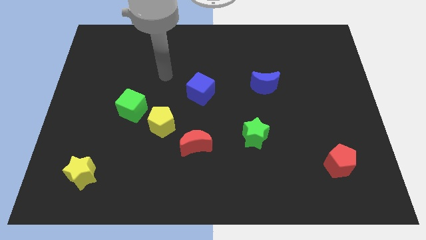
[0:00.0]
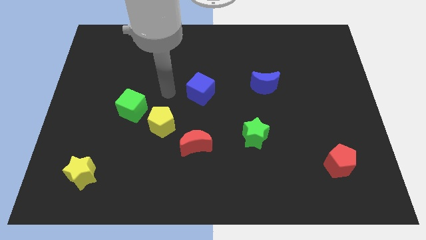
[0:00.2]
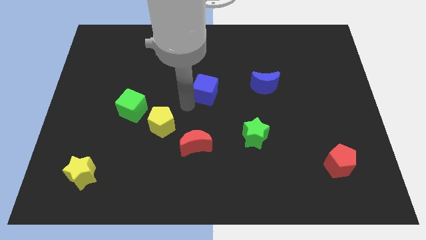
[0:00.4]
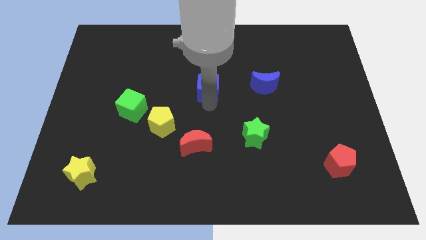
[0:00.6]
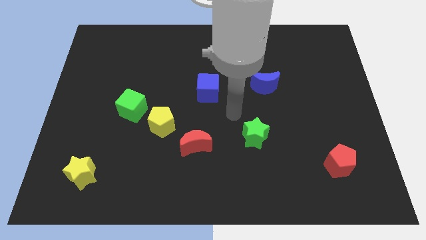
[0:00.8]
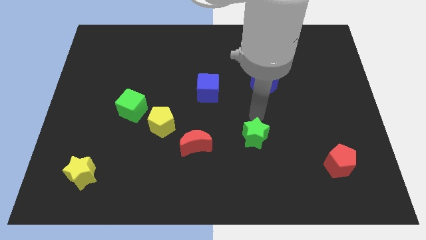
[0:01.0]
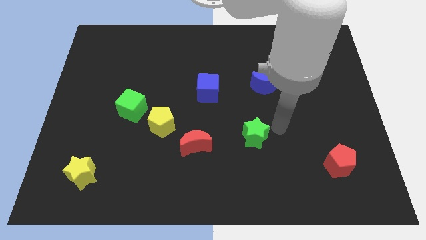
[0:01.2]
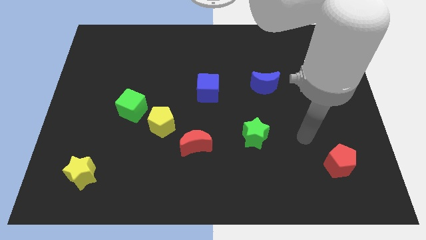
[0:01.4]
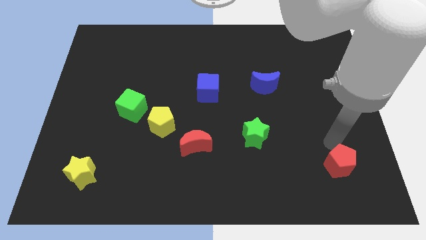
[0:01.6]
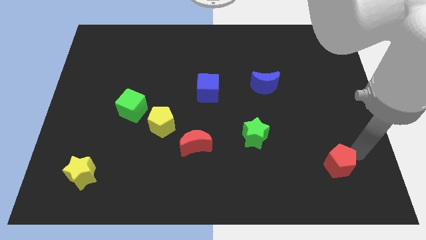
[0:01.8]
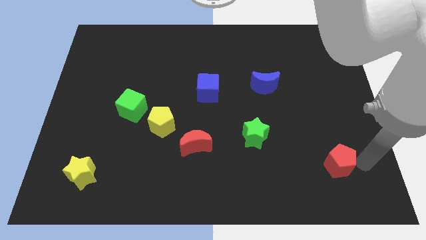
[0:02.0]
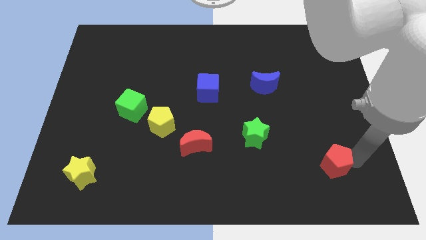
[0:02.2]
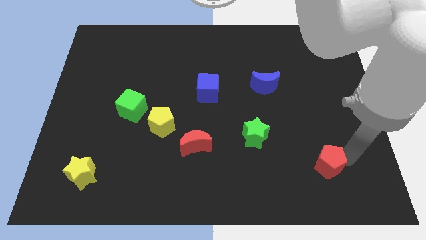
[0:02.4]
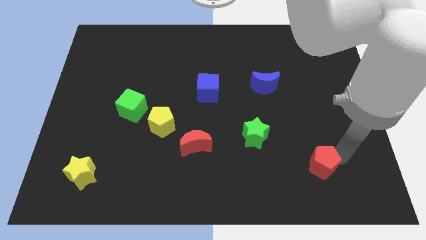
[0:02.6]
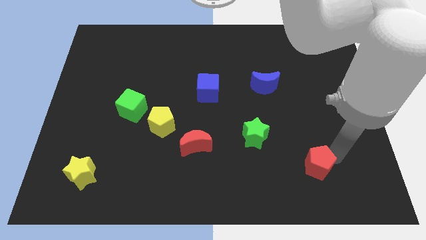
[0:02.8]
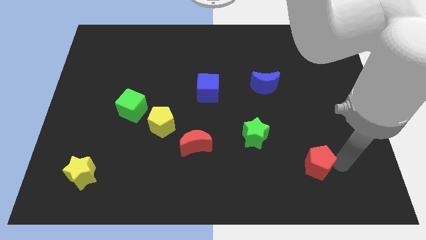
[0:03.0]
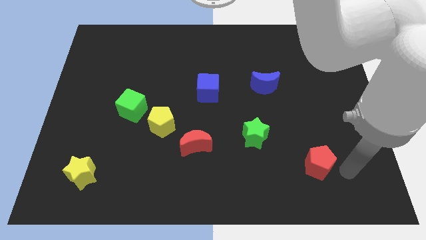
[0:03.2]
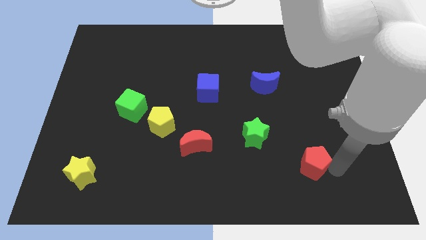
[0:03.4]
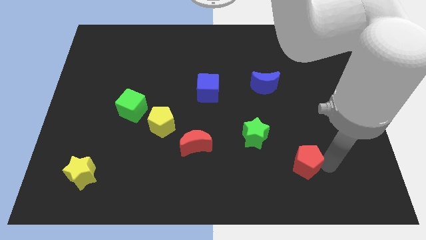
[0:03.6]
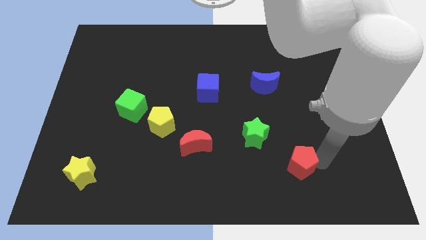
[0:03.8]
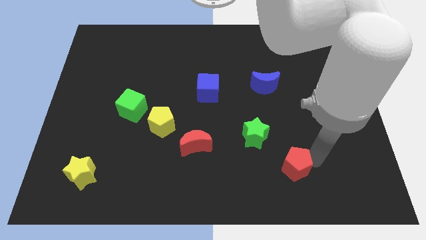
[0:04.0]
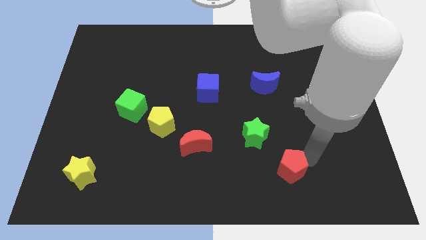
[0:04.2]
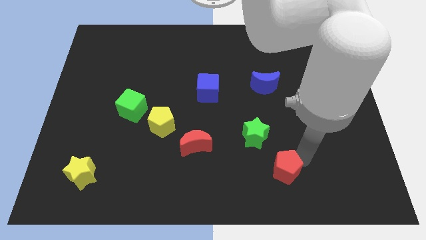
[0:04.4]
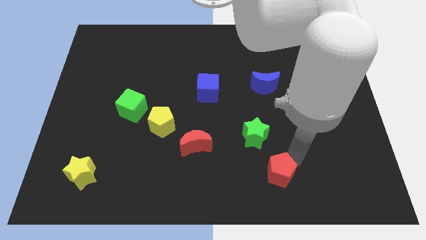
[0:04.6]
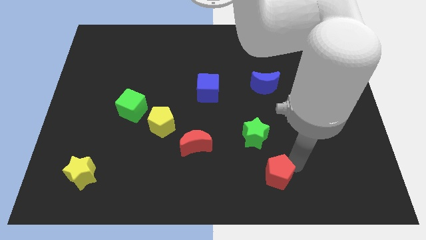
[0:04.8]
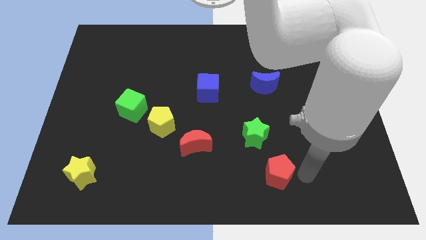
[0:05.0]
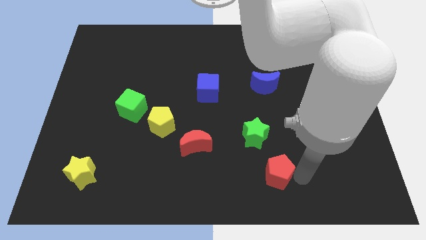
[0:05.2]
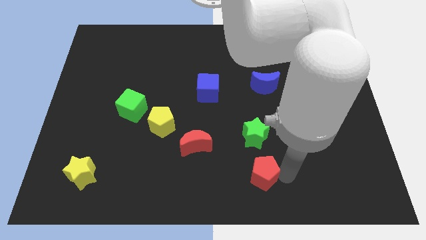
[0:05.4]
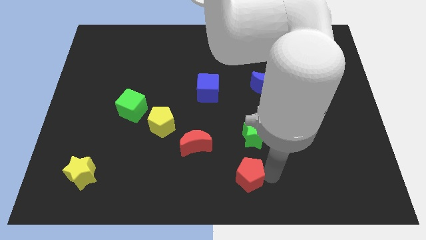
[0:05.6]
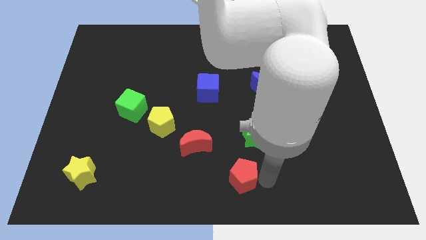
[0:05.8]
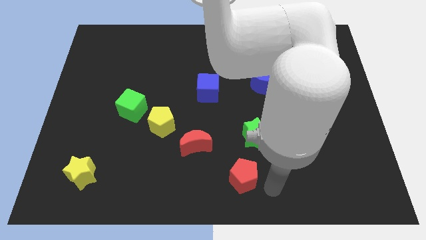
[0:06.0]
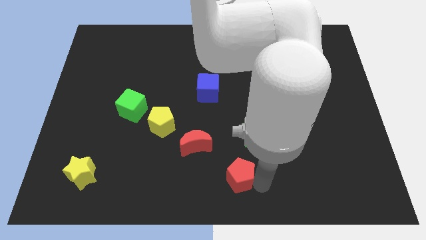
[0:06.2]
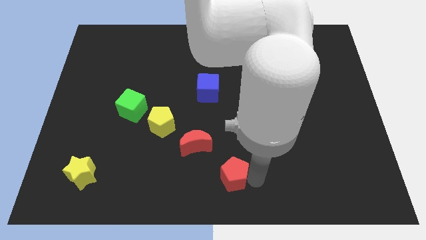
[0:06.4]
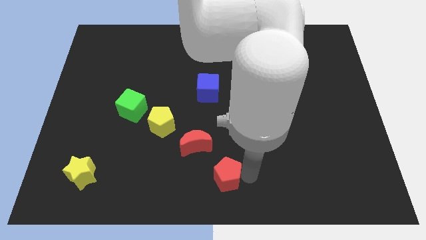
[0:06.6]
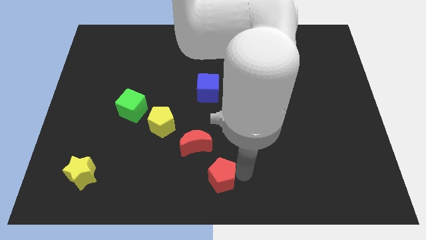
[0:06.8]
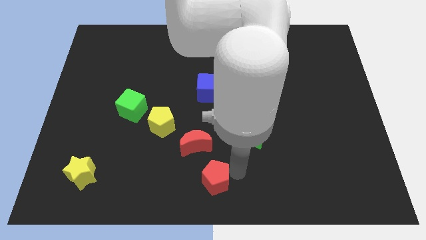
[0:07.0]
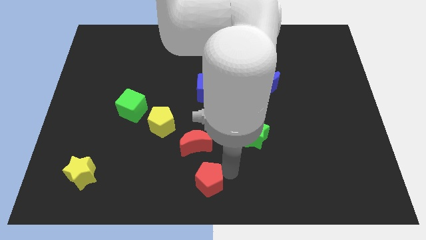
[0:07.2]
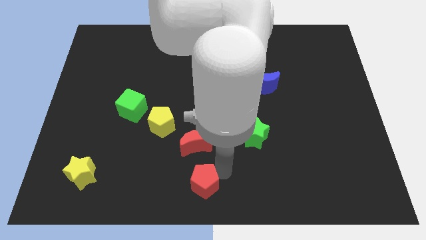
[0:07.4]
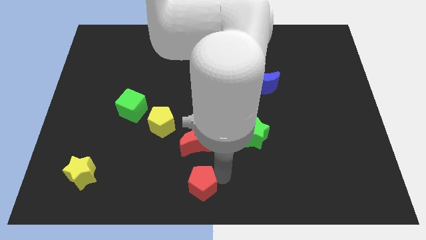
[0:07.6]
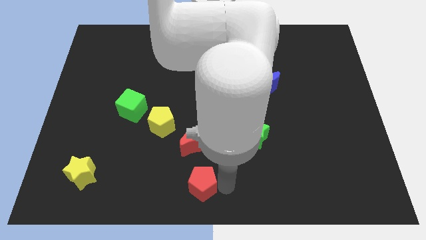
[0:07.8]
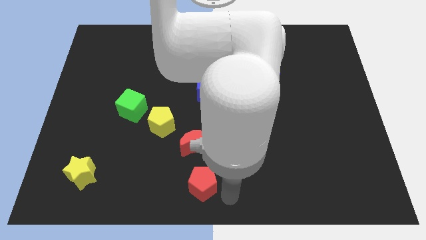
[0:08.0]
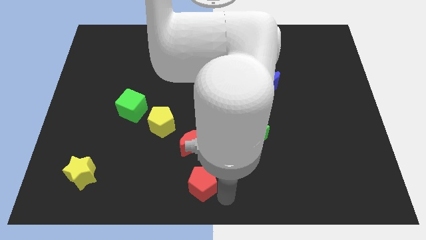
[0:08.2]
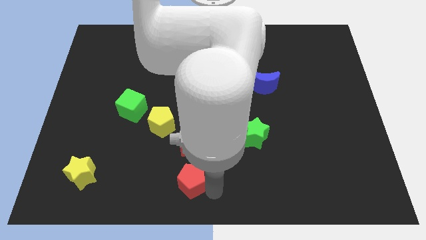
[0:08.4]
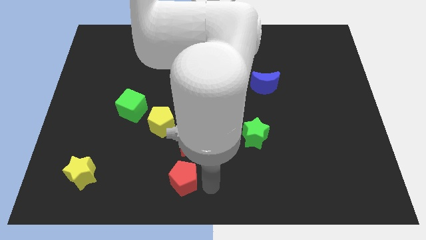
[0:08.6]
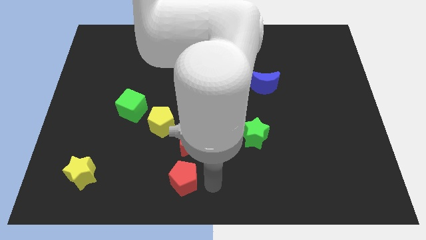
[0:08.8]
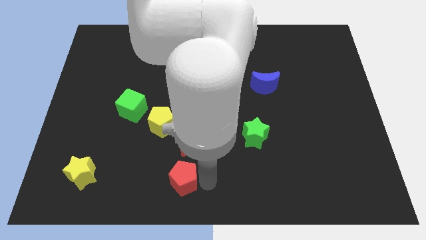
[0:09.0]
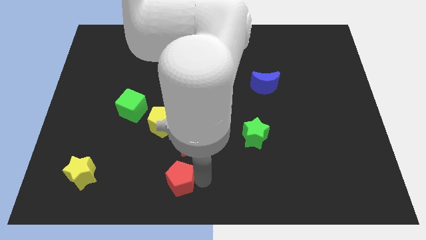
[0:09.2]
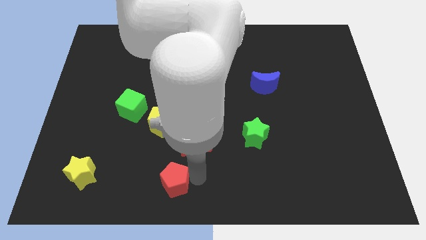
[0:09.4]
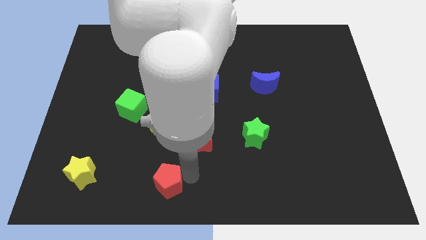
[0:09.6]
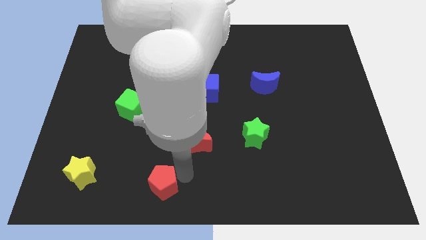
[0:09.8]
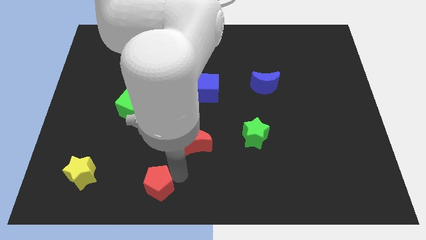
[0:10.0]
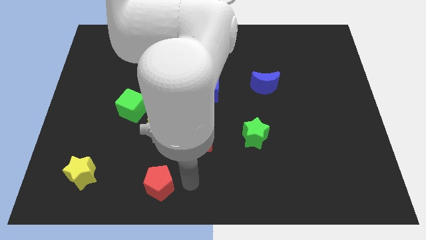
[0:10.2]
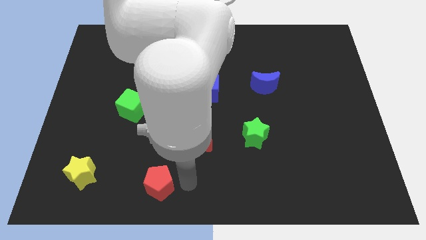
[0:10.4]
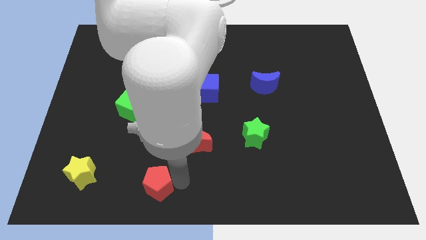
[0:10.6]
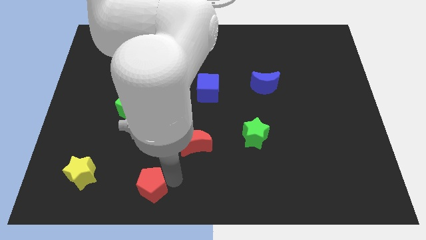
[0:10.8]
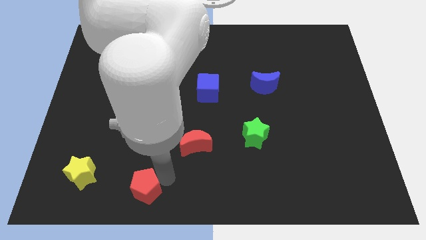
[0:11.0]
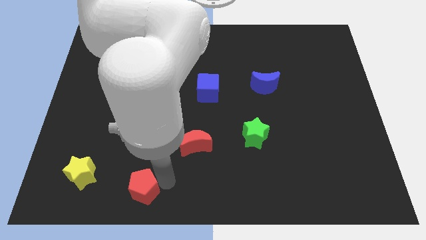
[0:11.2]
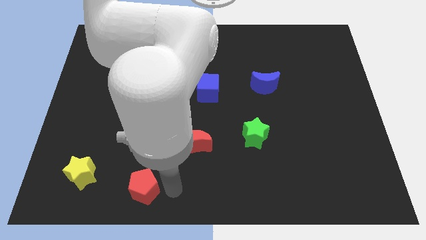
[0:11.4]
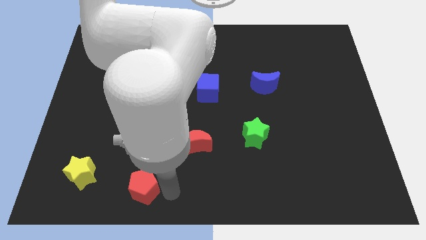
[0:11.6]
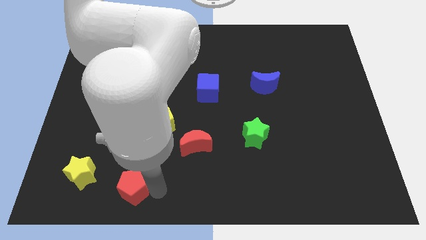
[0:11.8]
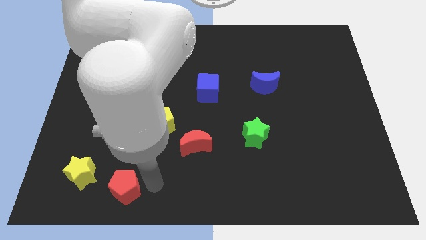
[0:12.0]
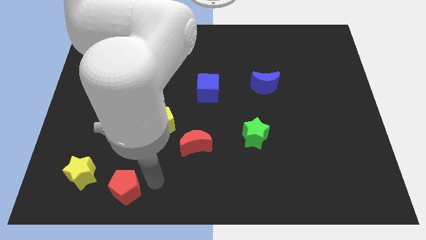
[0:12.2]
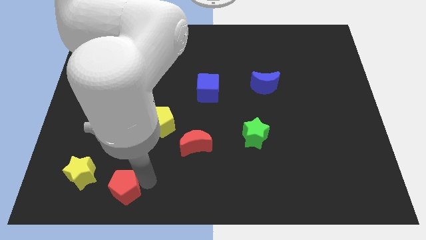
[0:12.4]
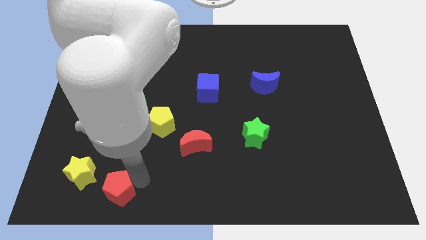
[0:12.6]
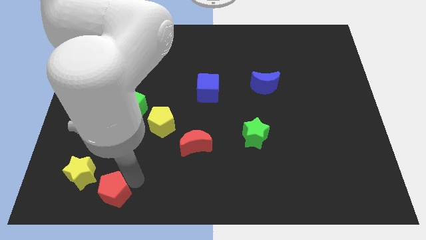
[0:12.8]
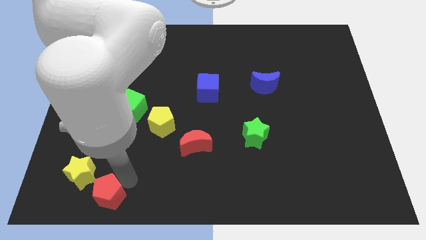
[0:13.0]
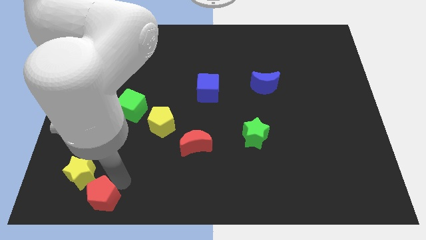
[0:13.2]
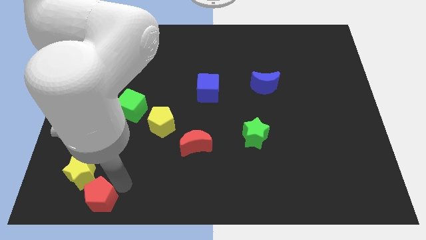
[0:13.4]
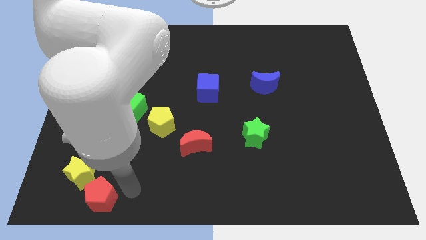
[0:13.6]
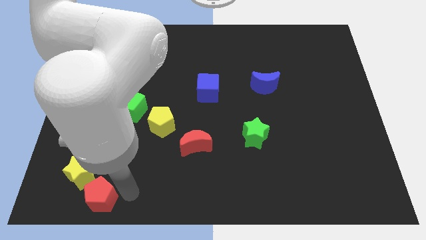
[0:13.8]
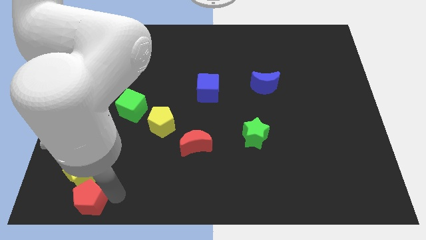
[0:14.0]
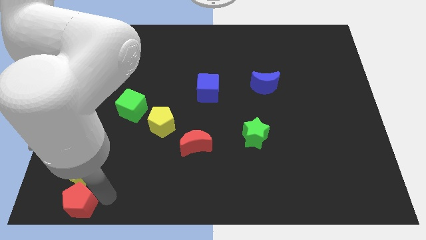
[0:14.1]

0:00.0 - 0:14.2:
push the red pentagon to the lower left corner
